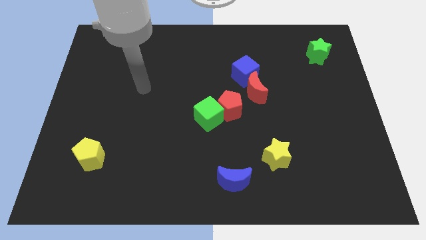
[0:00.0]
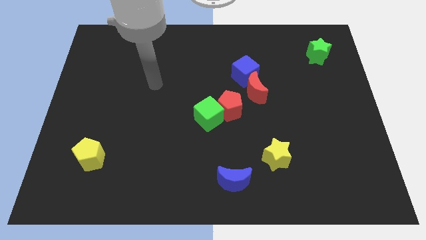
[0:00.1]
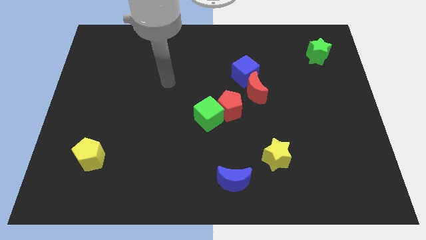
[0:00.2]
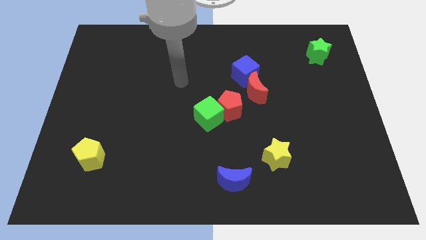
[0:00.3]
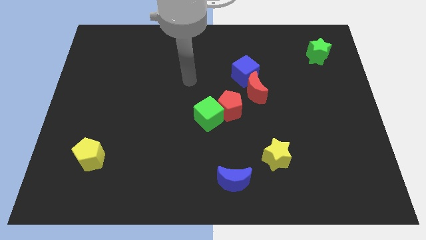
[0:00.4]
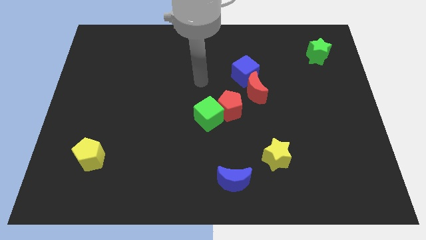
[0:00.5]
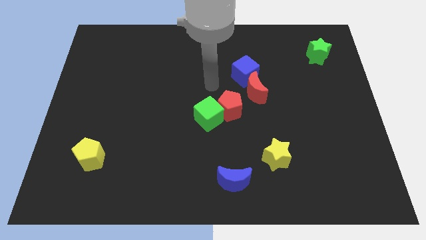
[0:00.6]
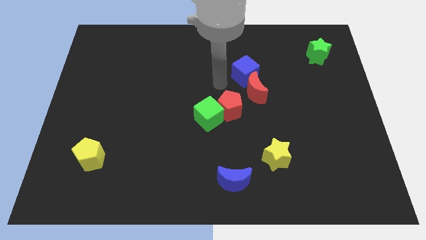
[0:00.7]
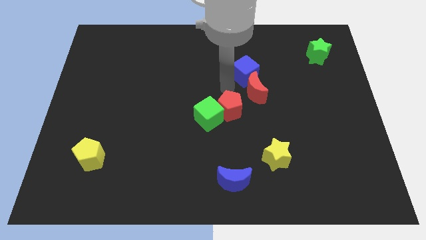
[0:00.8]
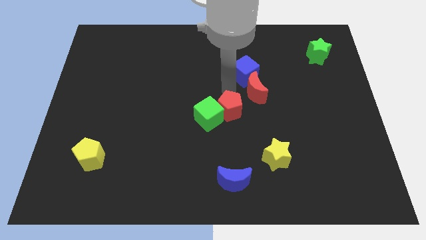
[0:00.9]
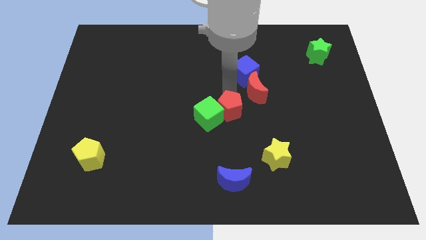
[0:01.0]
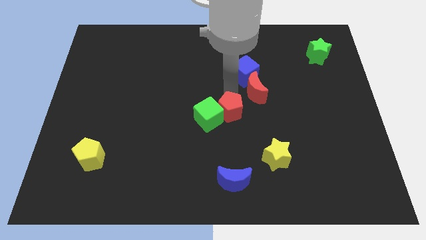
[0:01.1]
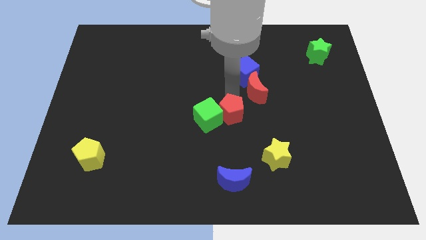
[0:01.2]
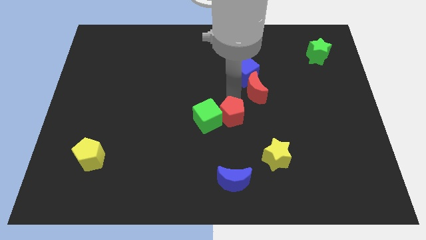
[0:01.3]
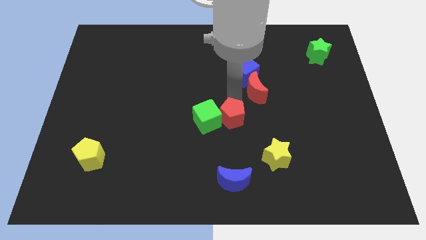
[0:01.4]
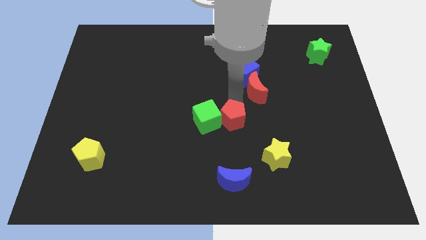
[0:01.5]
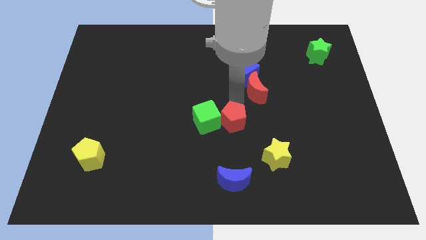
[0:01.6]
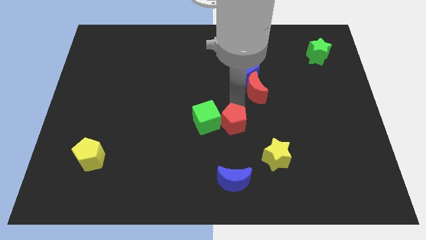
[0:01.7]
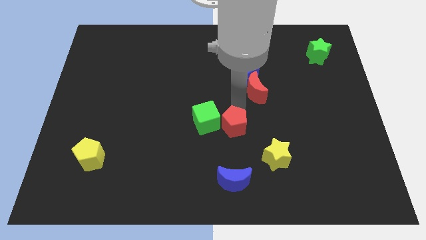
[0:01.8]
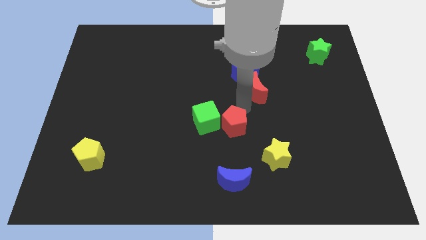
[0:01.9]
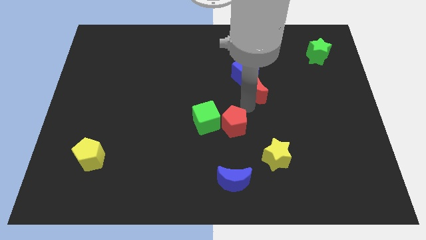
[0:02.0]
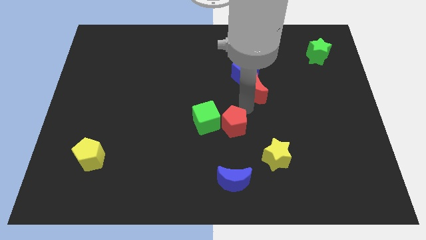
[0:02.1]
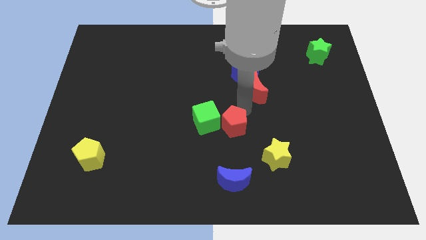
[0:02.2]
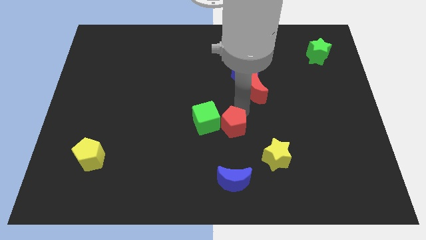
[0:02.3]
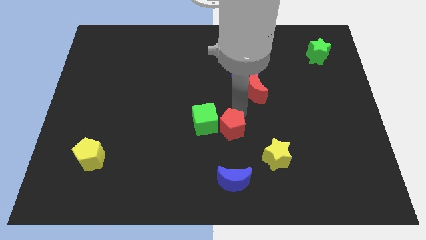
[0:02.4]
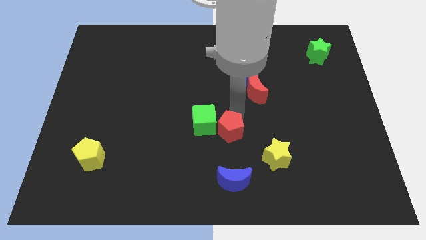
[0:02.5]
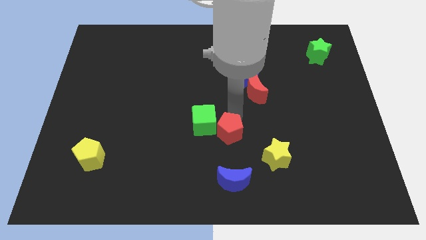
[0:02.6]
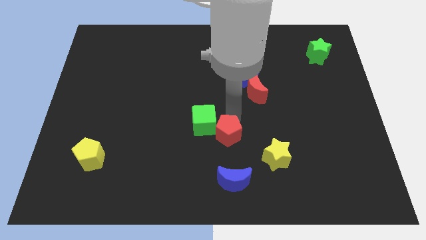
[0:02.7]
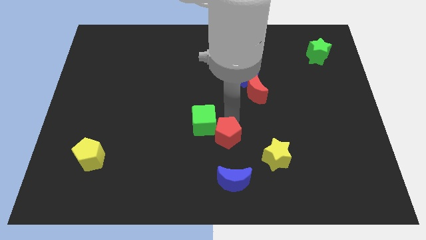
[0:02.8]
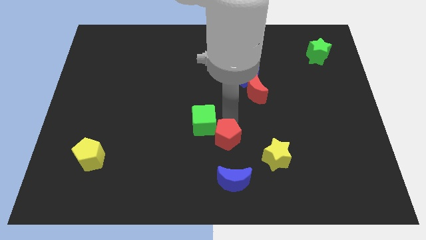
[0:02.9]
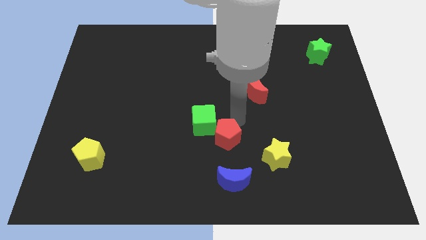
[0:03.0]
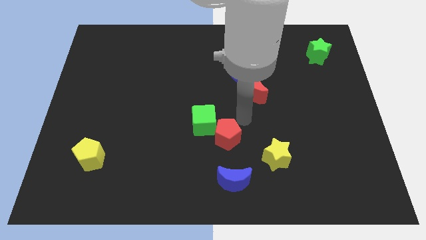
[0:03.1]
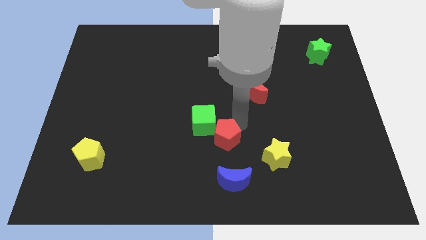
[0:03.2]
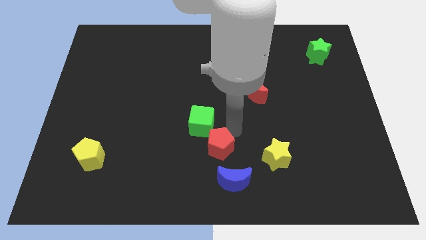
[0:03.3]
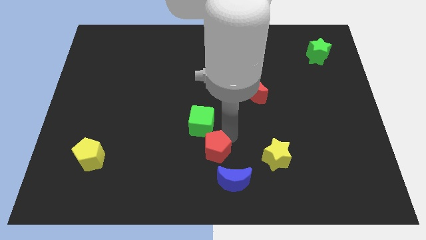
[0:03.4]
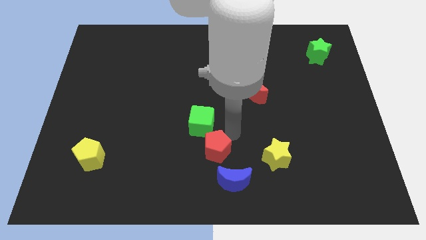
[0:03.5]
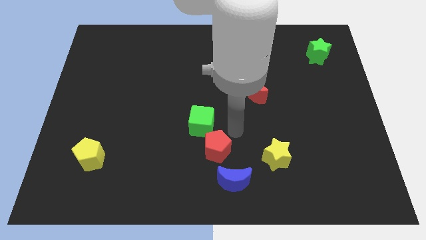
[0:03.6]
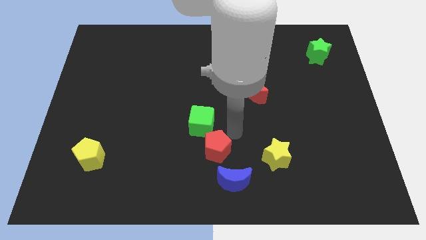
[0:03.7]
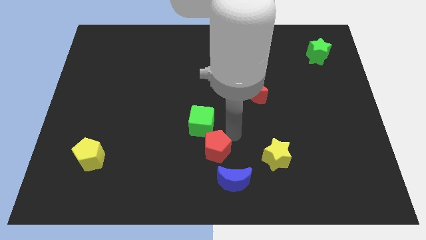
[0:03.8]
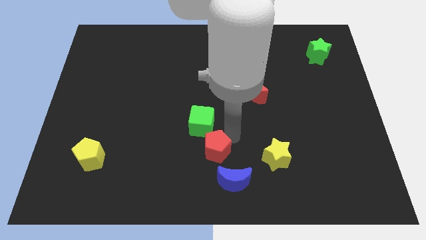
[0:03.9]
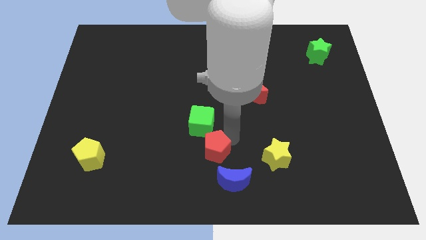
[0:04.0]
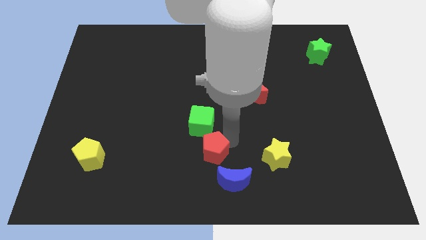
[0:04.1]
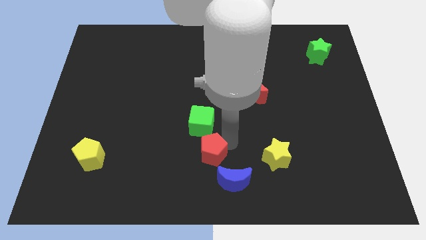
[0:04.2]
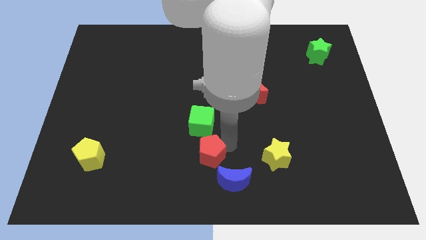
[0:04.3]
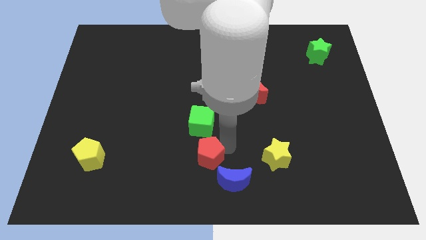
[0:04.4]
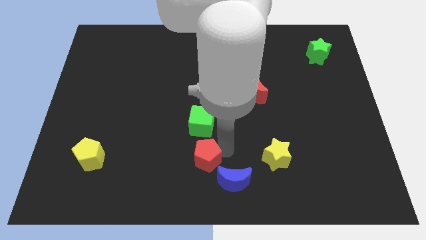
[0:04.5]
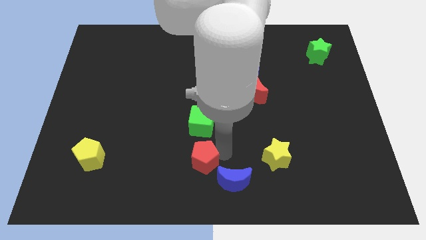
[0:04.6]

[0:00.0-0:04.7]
move the red pentagon left of the blue moon

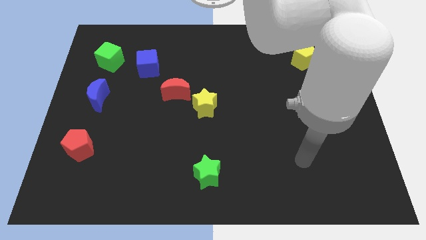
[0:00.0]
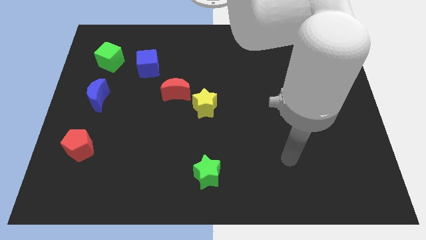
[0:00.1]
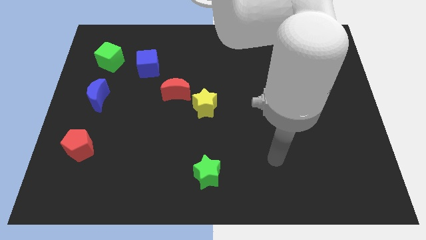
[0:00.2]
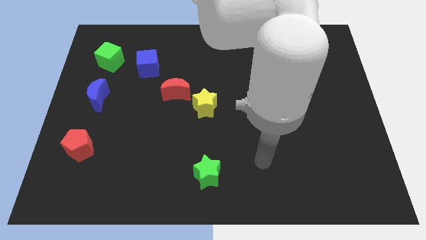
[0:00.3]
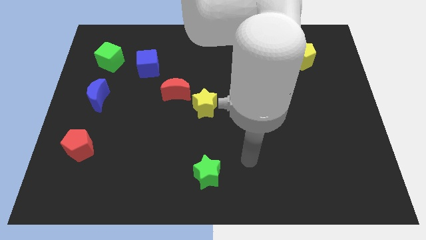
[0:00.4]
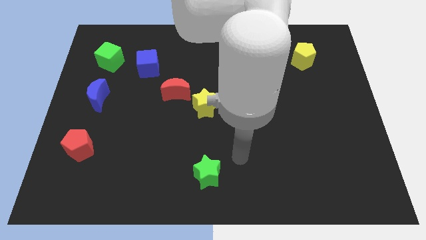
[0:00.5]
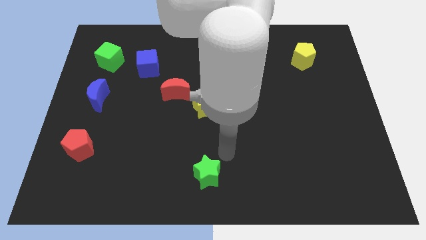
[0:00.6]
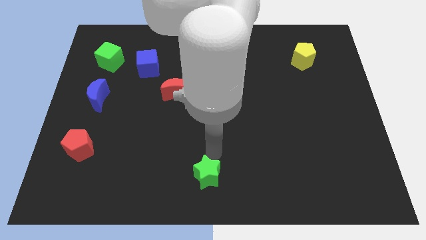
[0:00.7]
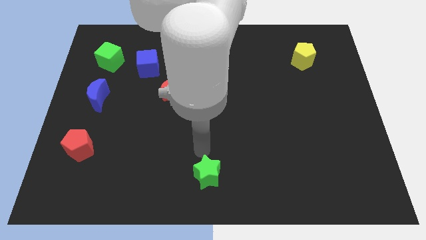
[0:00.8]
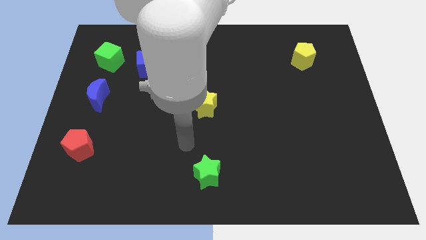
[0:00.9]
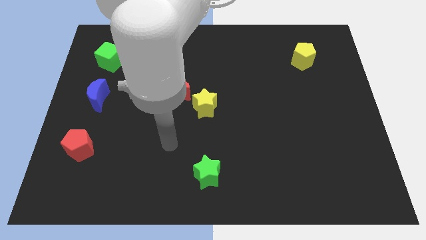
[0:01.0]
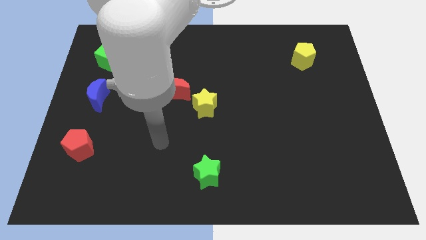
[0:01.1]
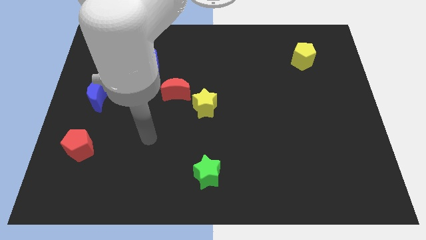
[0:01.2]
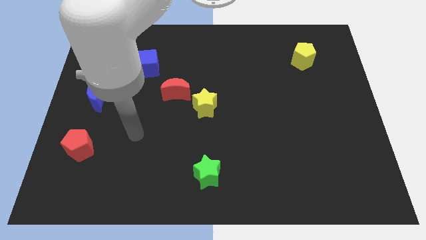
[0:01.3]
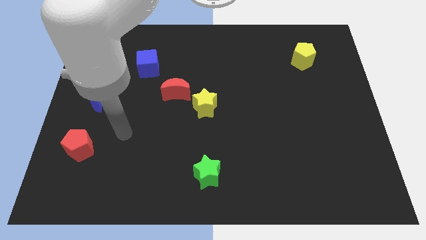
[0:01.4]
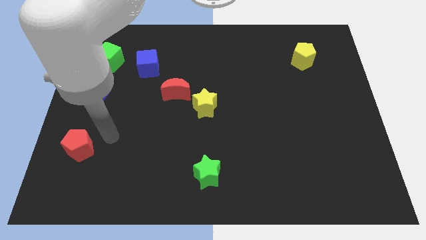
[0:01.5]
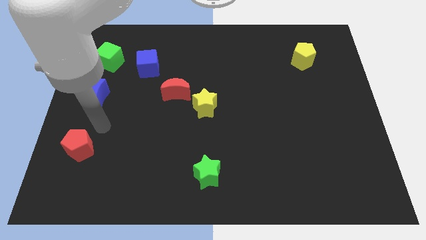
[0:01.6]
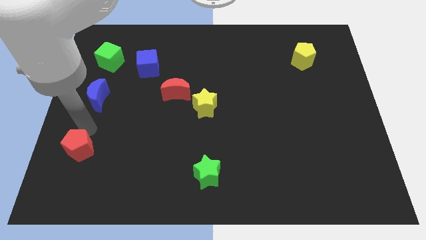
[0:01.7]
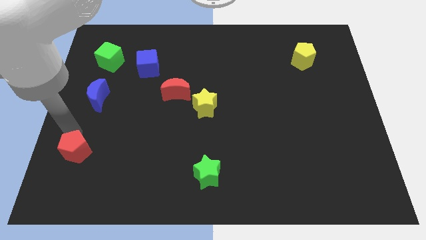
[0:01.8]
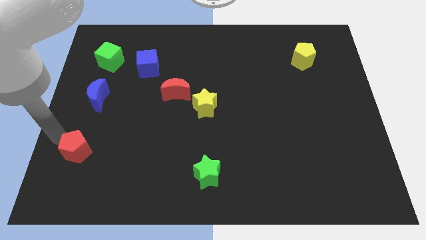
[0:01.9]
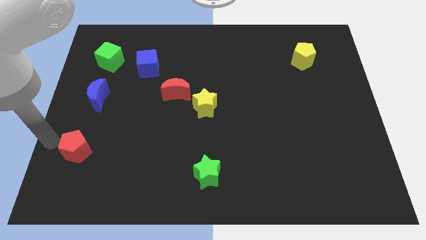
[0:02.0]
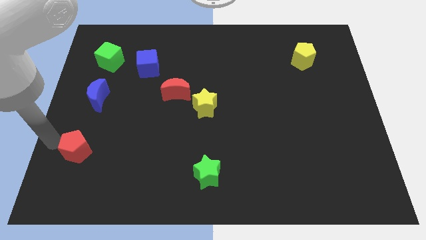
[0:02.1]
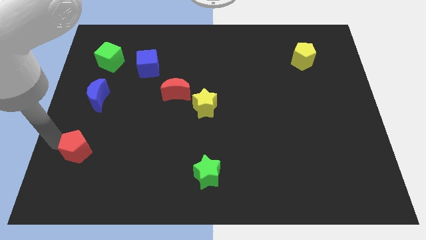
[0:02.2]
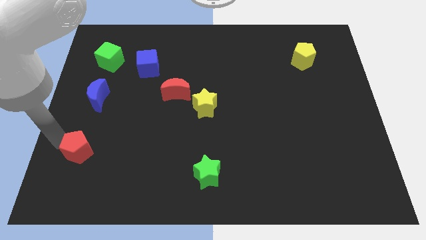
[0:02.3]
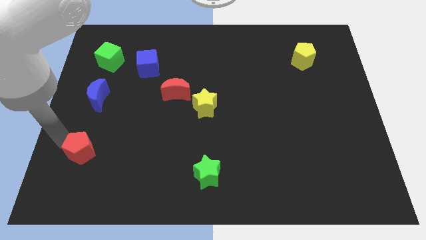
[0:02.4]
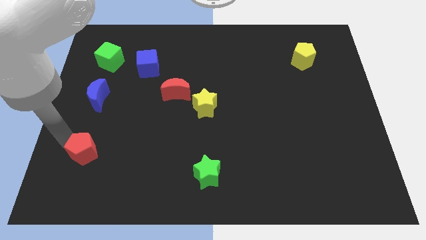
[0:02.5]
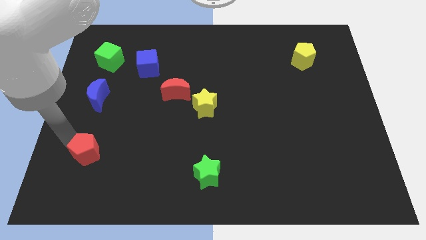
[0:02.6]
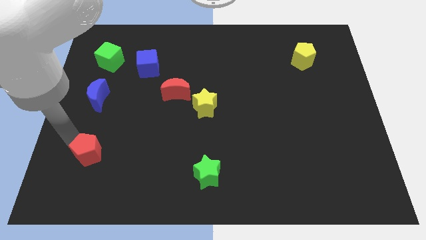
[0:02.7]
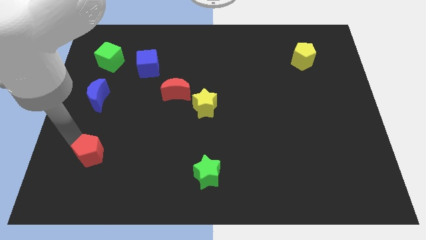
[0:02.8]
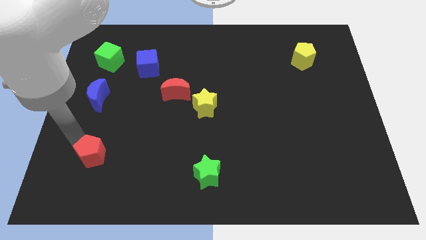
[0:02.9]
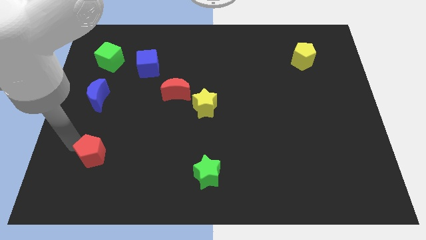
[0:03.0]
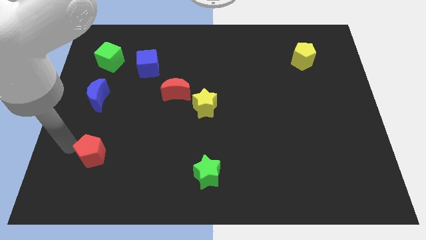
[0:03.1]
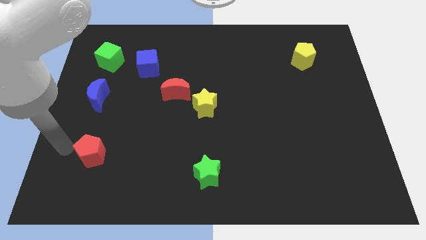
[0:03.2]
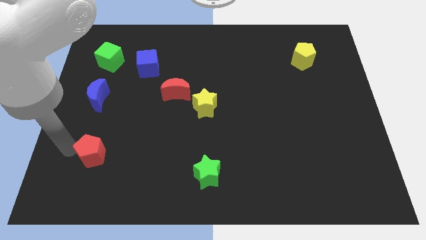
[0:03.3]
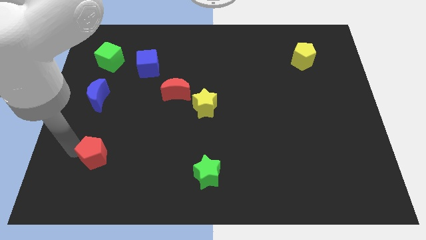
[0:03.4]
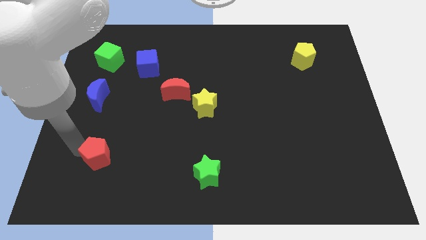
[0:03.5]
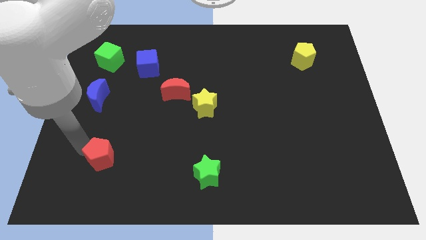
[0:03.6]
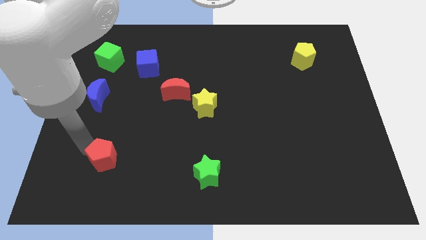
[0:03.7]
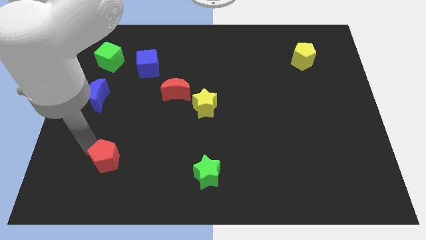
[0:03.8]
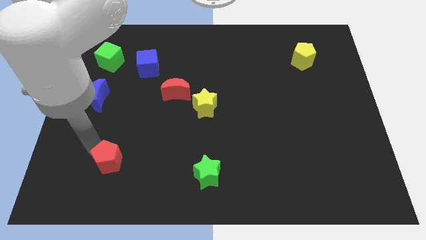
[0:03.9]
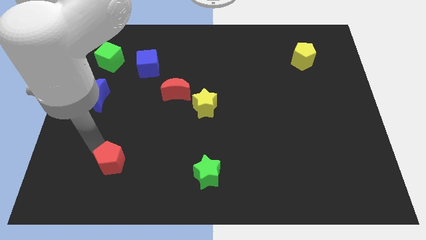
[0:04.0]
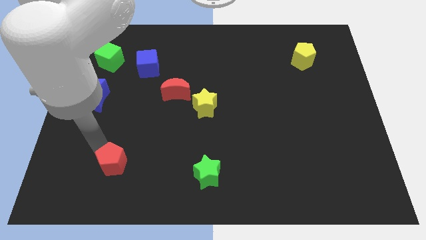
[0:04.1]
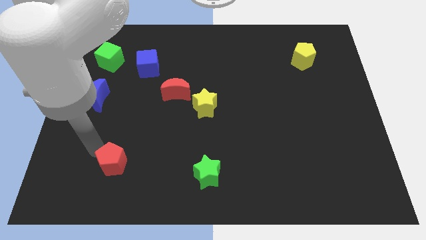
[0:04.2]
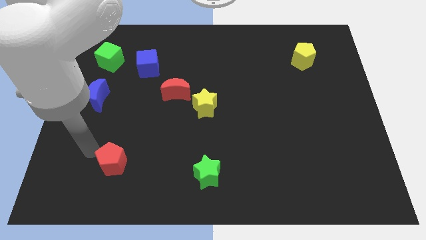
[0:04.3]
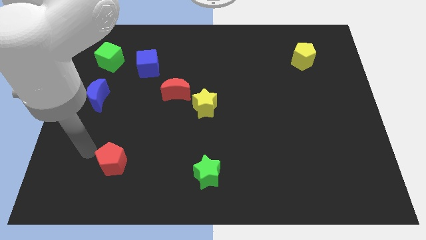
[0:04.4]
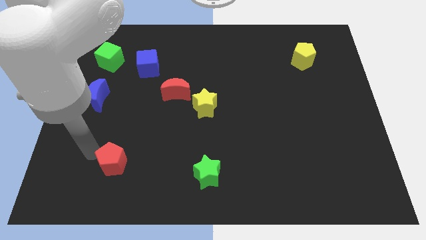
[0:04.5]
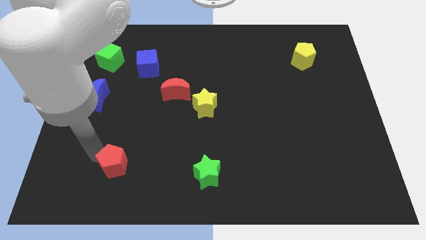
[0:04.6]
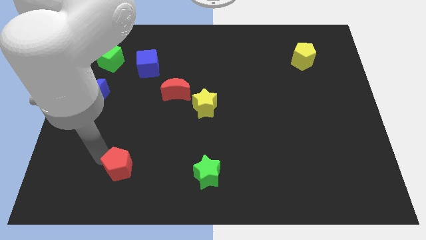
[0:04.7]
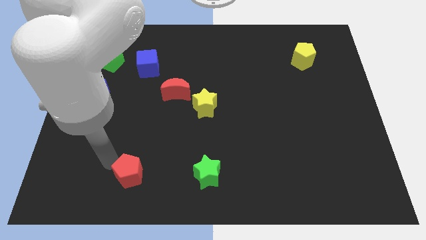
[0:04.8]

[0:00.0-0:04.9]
put the red pentagon left of the green star
